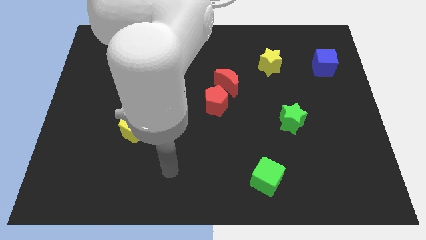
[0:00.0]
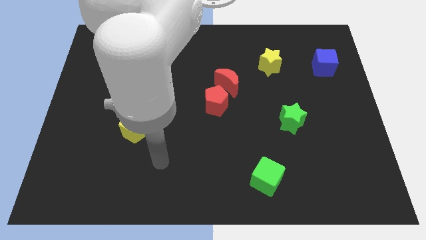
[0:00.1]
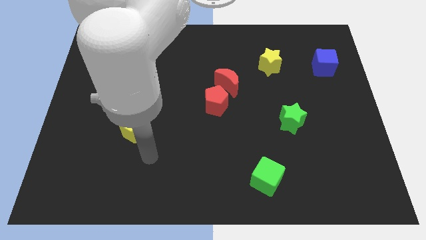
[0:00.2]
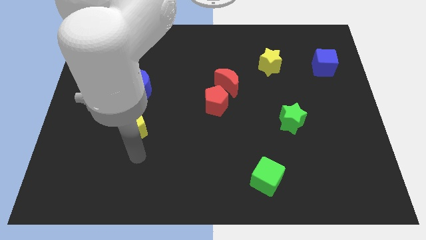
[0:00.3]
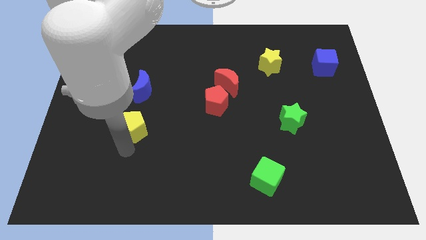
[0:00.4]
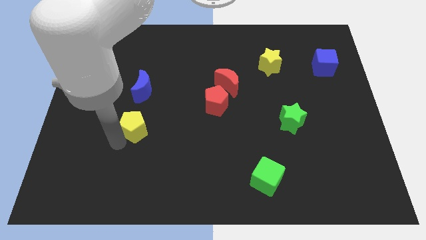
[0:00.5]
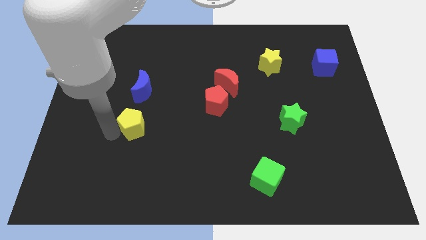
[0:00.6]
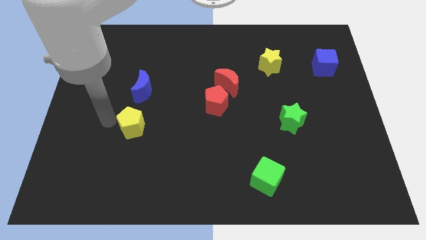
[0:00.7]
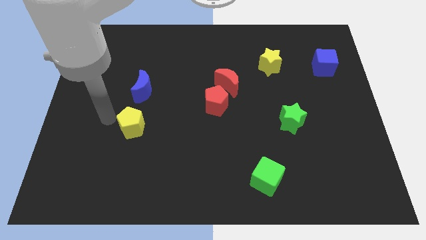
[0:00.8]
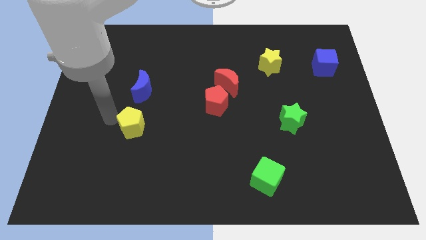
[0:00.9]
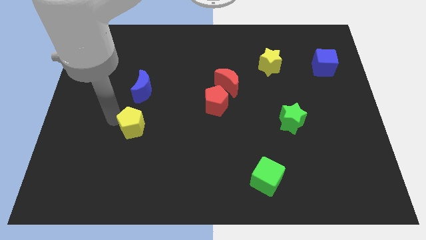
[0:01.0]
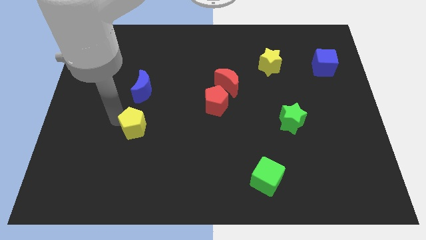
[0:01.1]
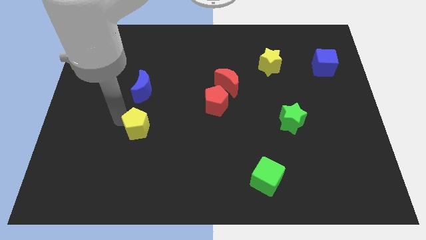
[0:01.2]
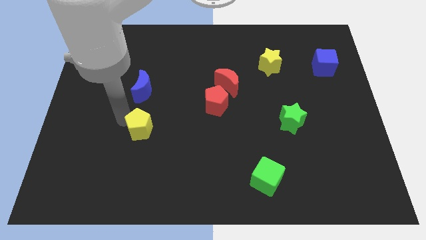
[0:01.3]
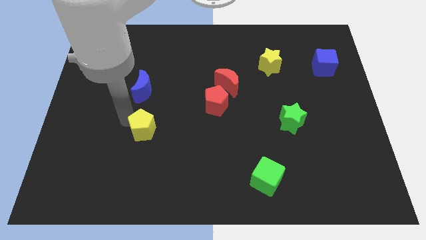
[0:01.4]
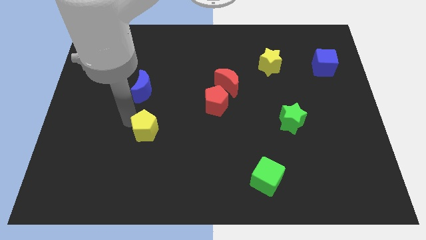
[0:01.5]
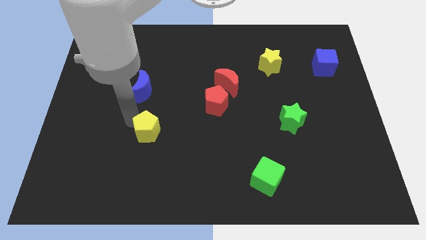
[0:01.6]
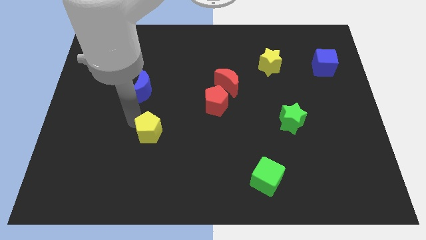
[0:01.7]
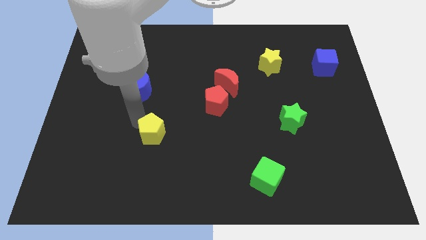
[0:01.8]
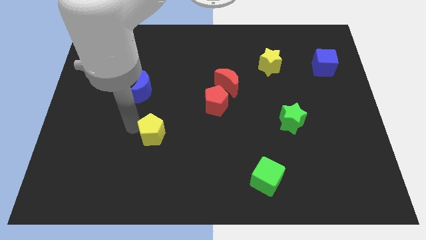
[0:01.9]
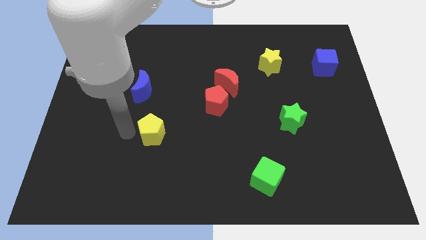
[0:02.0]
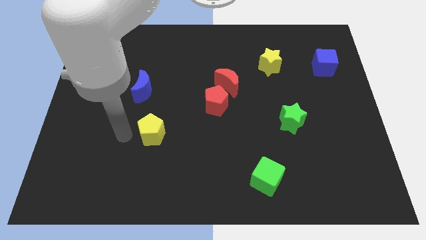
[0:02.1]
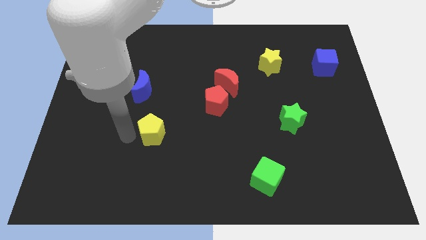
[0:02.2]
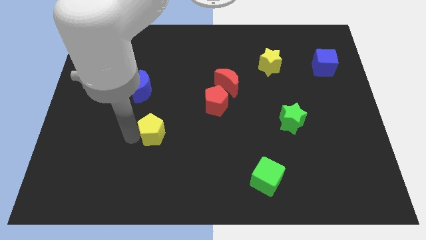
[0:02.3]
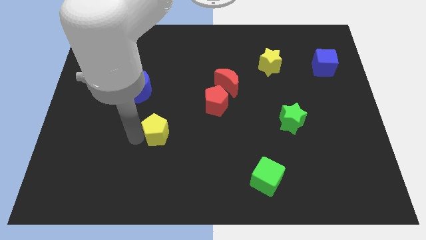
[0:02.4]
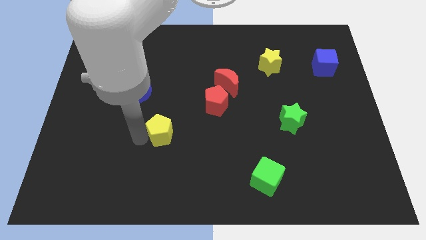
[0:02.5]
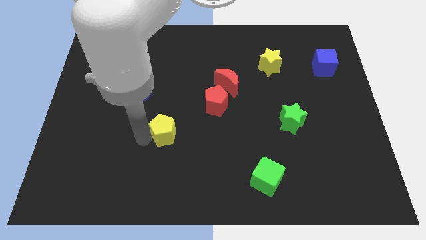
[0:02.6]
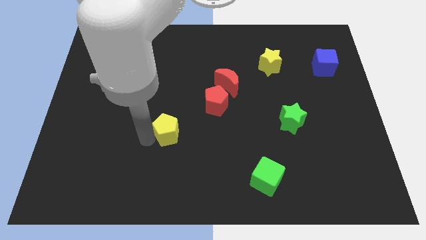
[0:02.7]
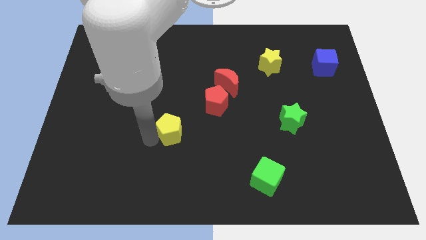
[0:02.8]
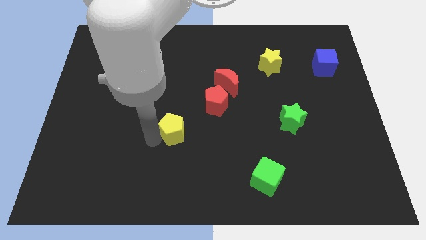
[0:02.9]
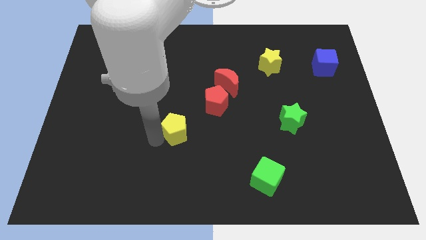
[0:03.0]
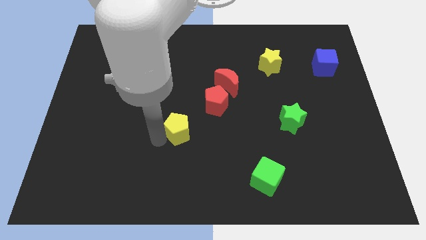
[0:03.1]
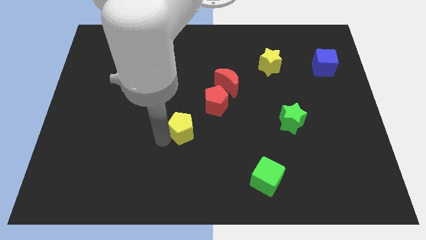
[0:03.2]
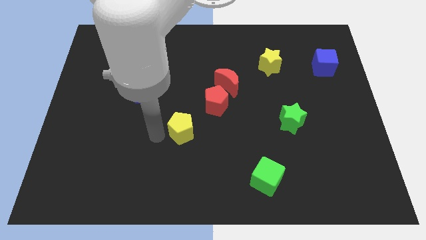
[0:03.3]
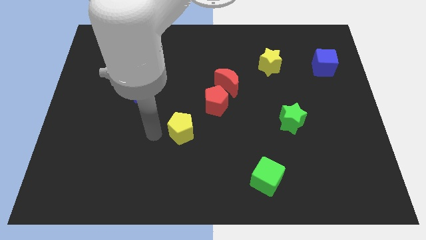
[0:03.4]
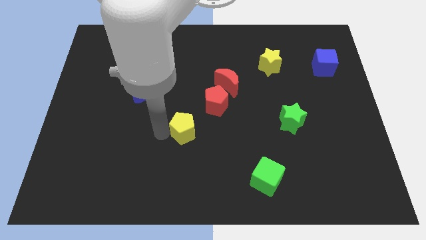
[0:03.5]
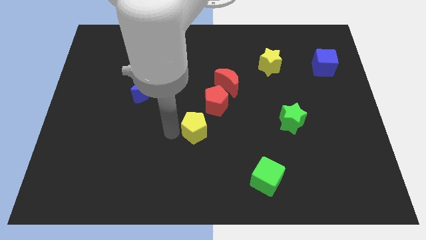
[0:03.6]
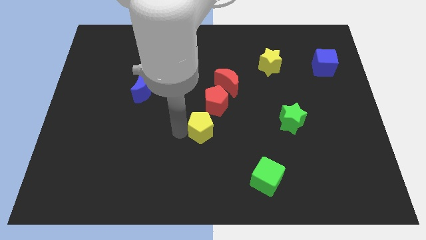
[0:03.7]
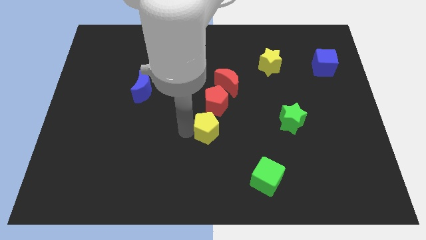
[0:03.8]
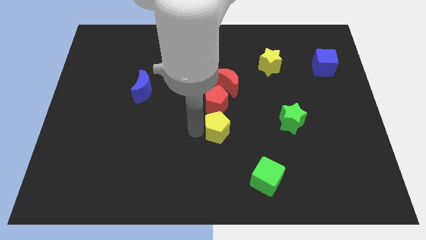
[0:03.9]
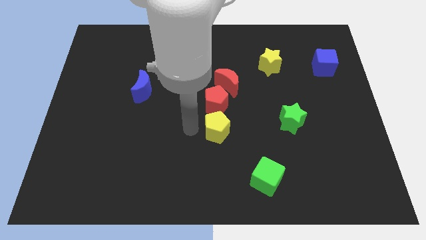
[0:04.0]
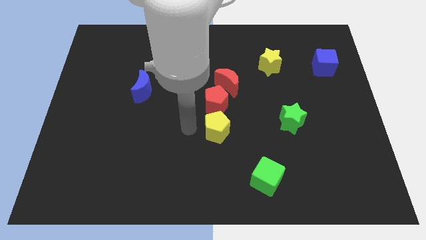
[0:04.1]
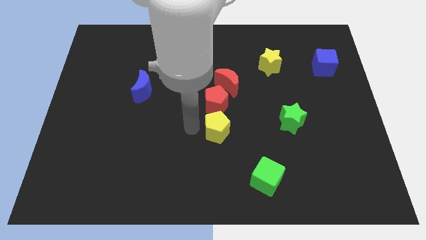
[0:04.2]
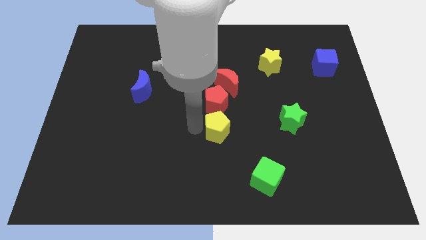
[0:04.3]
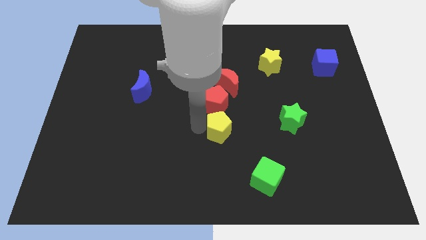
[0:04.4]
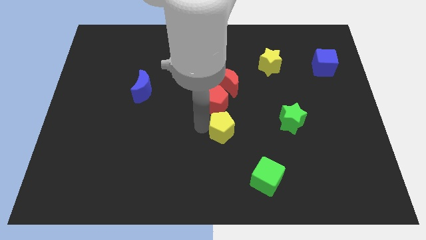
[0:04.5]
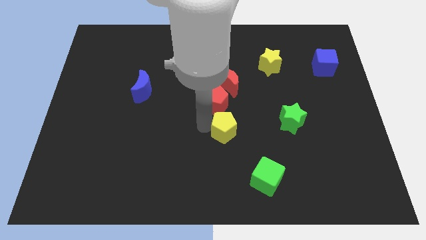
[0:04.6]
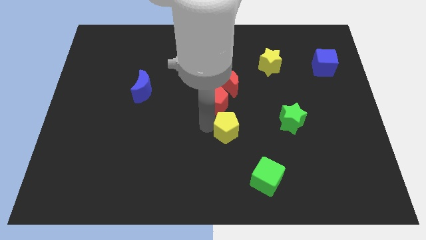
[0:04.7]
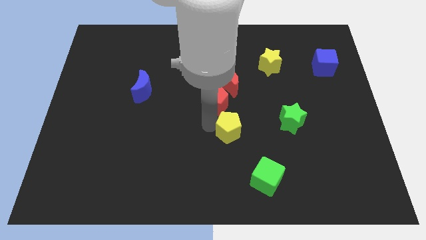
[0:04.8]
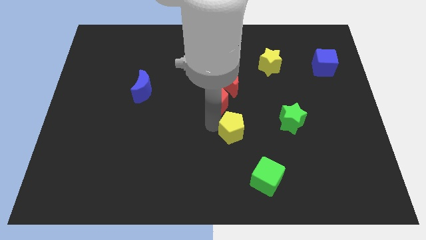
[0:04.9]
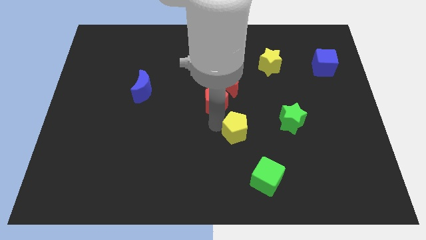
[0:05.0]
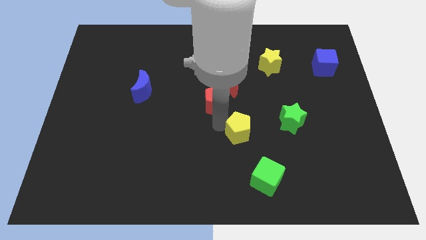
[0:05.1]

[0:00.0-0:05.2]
put the yellow pentagon to the top side of the green cube

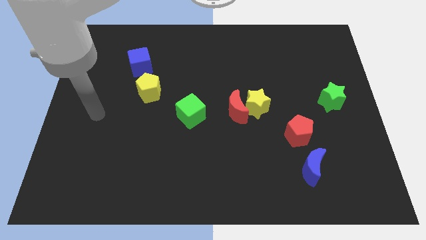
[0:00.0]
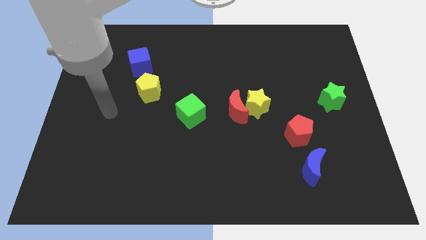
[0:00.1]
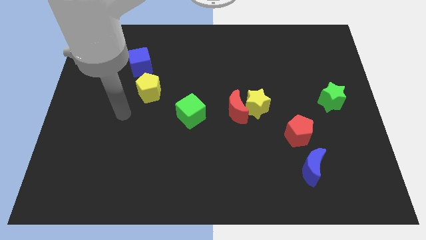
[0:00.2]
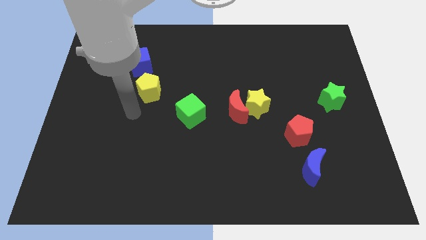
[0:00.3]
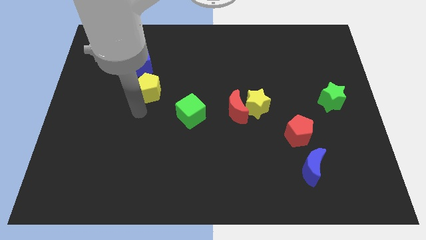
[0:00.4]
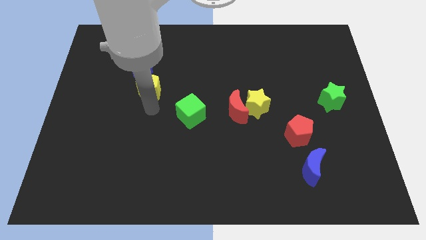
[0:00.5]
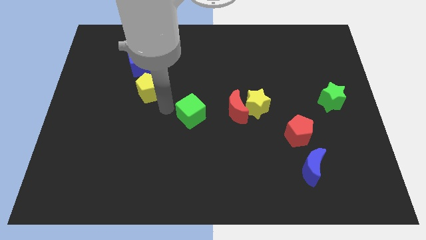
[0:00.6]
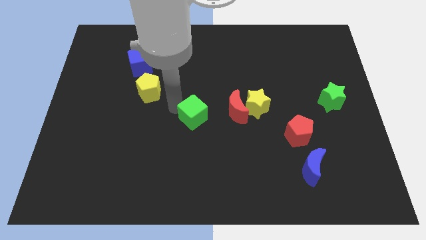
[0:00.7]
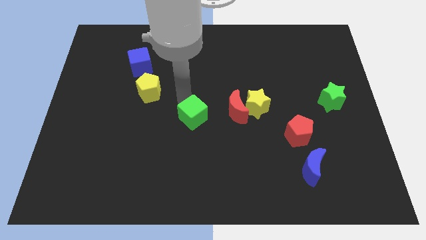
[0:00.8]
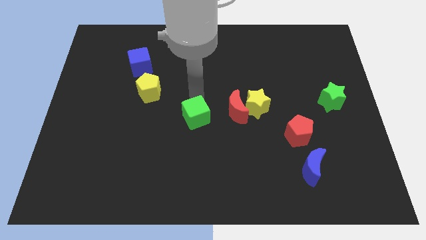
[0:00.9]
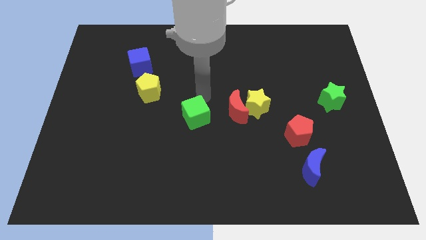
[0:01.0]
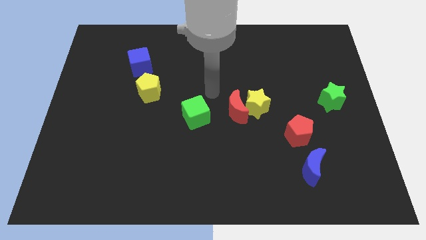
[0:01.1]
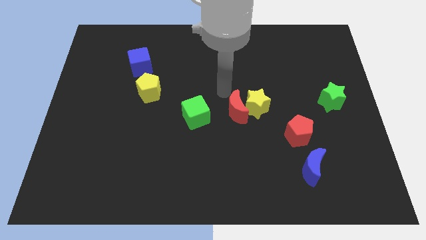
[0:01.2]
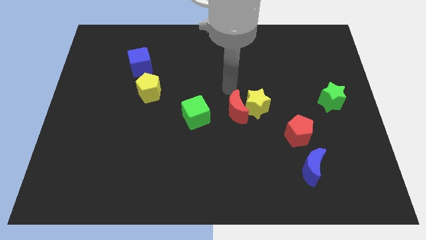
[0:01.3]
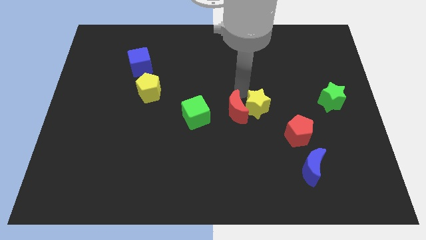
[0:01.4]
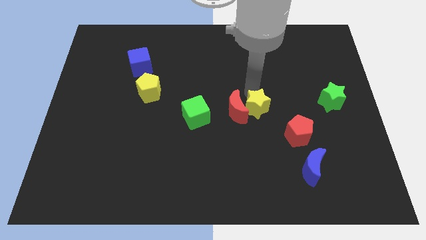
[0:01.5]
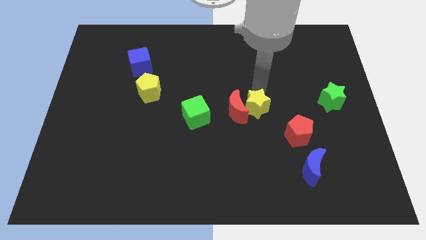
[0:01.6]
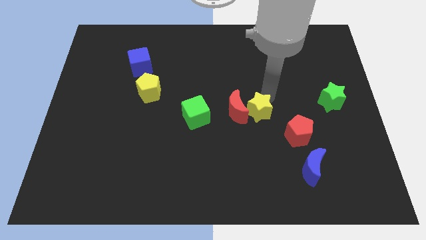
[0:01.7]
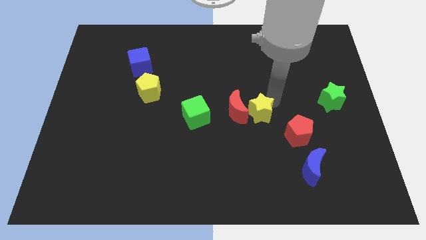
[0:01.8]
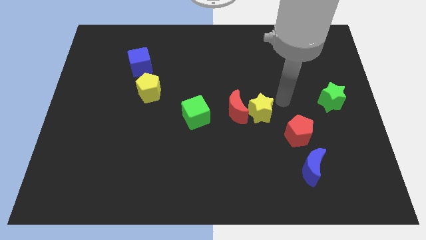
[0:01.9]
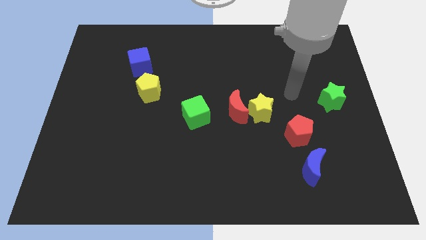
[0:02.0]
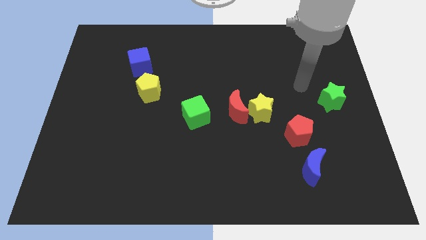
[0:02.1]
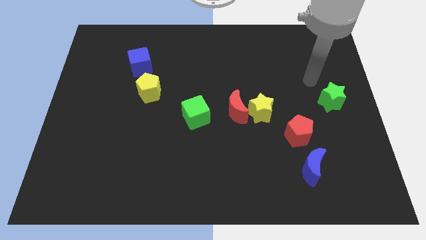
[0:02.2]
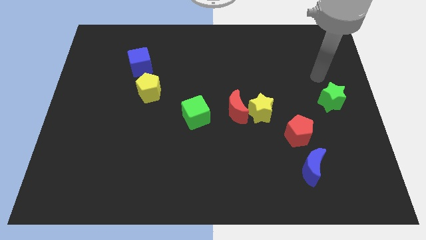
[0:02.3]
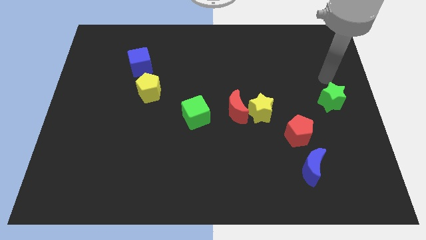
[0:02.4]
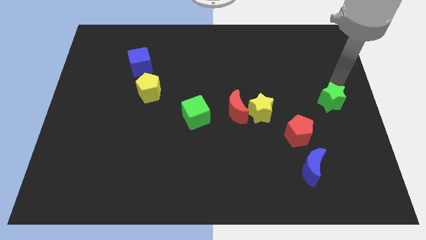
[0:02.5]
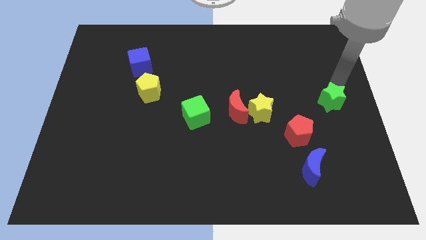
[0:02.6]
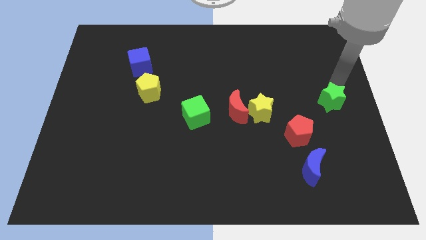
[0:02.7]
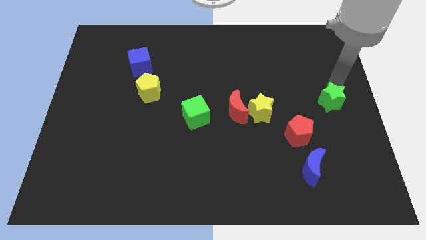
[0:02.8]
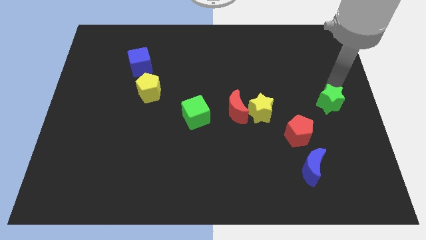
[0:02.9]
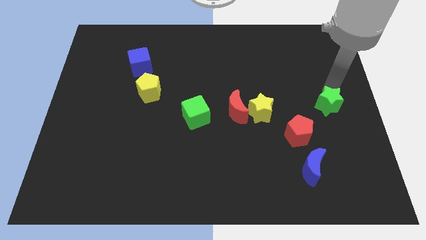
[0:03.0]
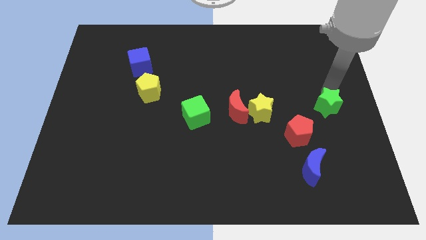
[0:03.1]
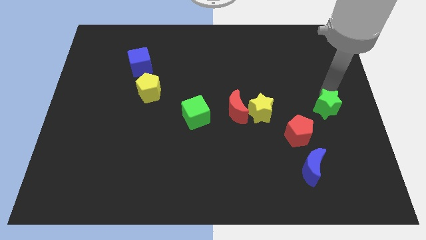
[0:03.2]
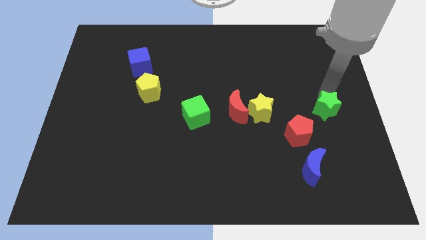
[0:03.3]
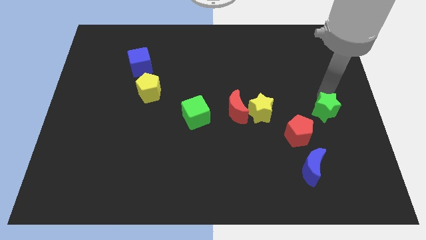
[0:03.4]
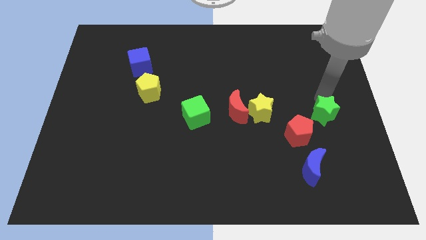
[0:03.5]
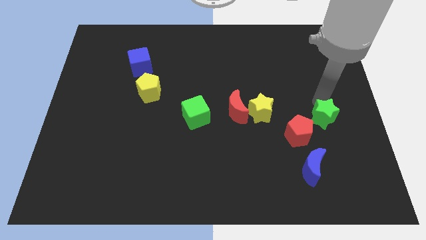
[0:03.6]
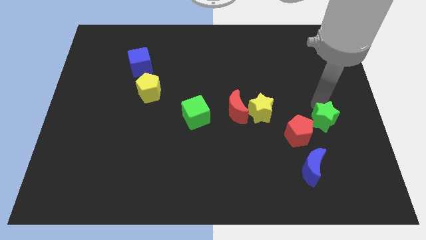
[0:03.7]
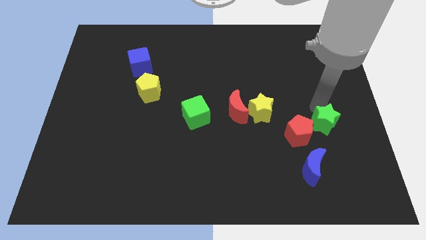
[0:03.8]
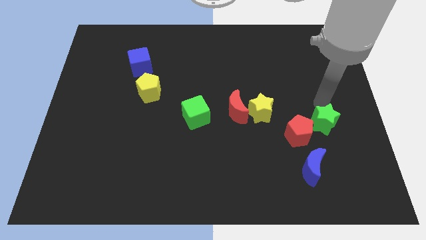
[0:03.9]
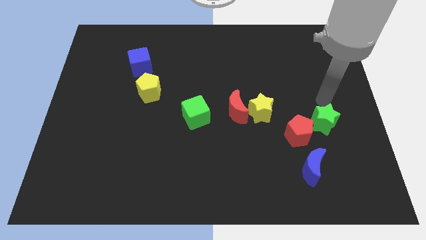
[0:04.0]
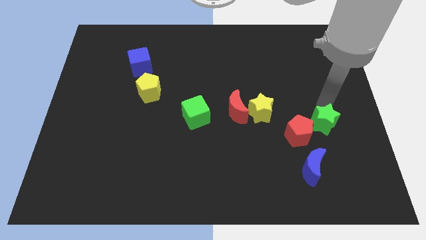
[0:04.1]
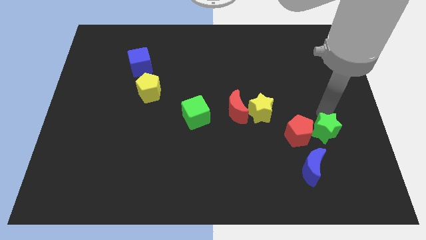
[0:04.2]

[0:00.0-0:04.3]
slide the green star to the bottom right of the red pentagon
